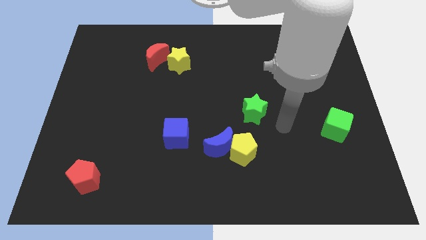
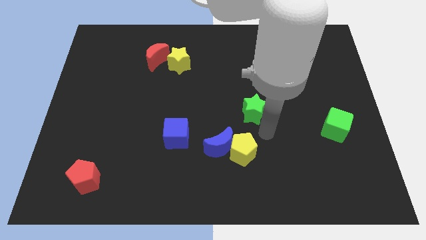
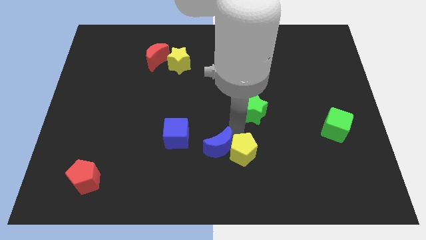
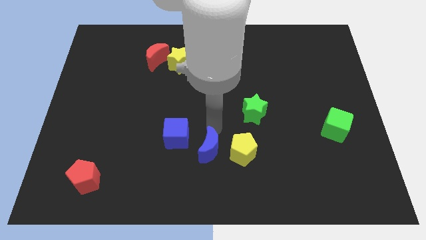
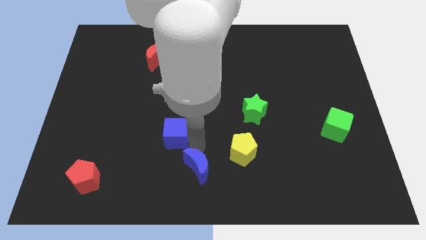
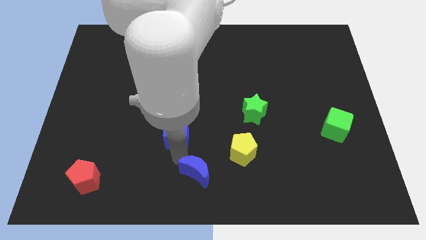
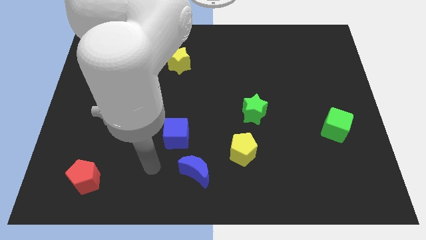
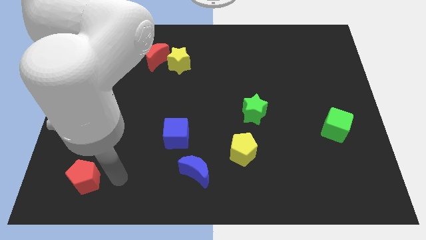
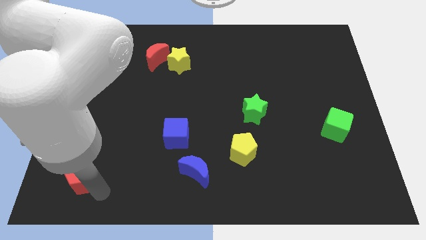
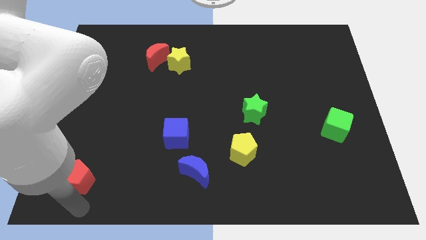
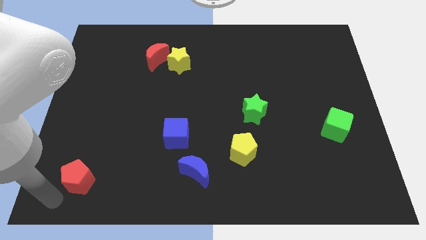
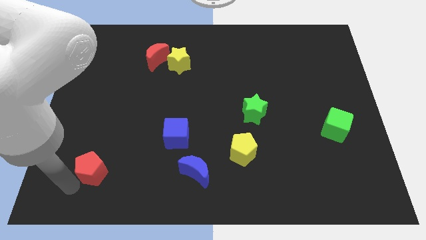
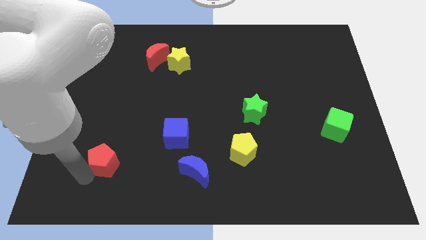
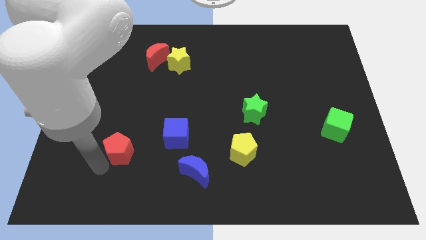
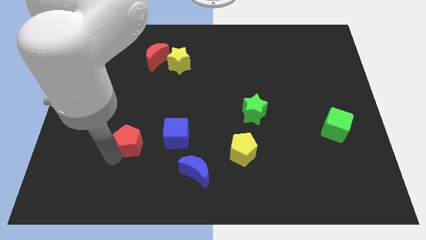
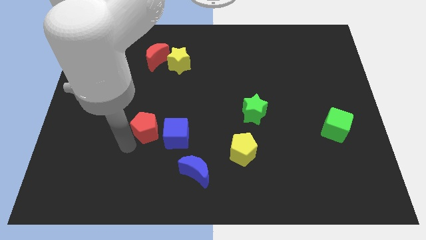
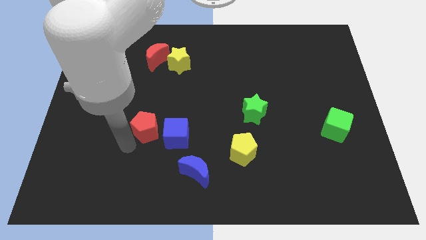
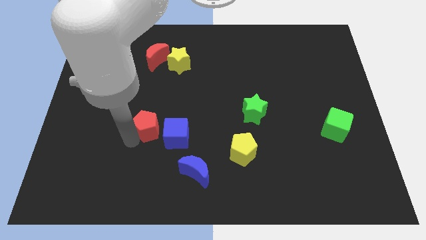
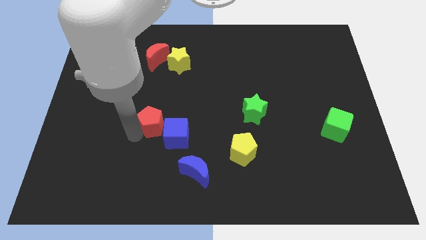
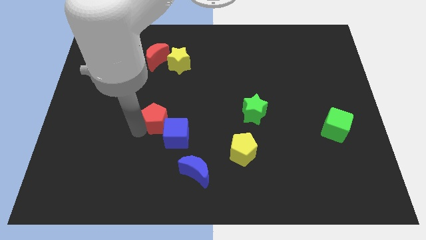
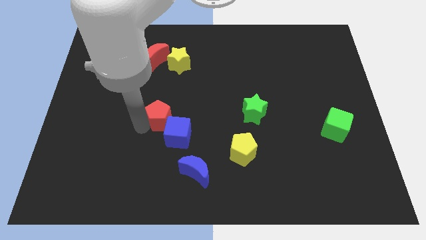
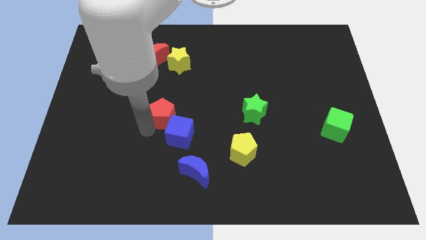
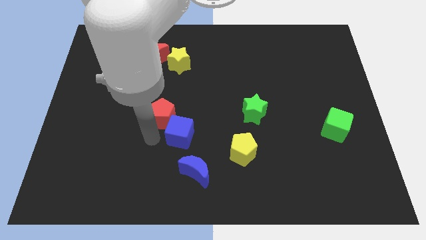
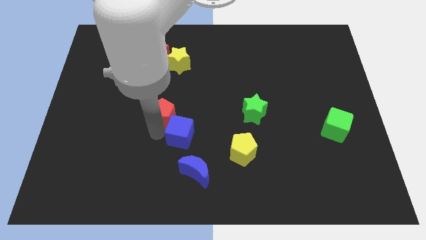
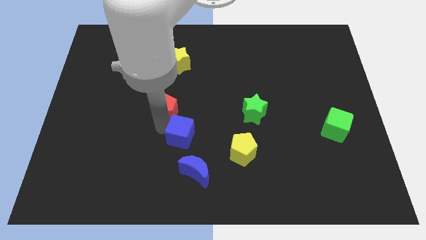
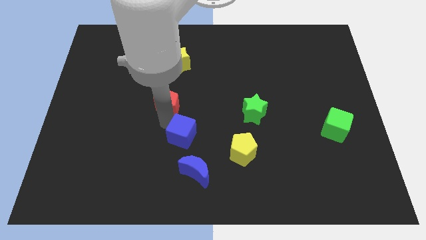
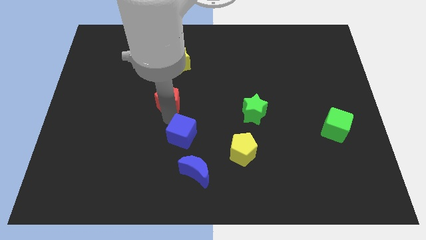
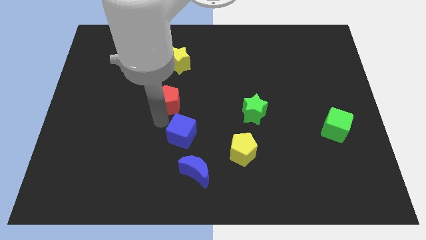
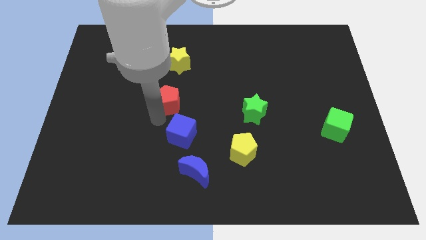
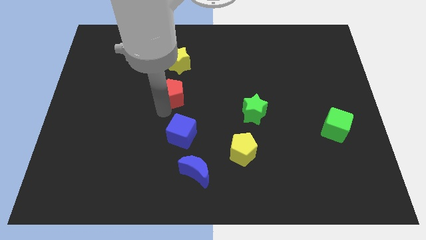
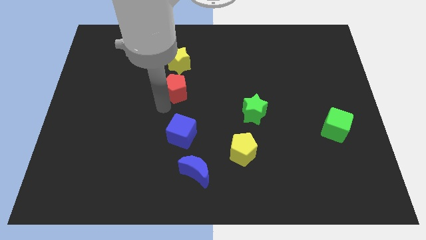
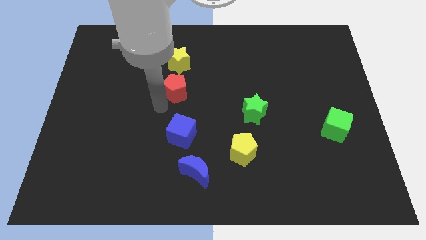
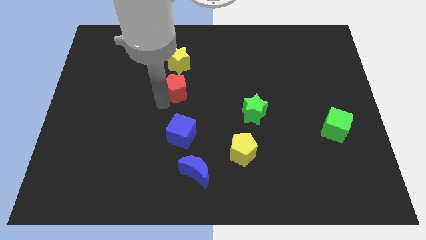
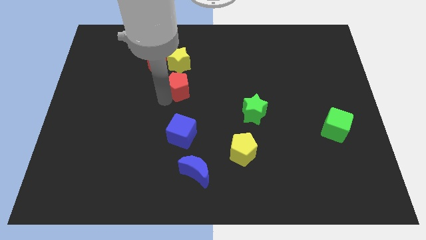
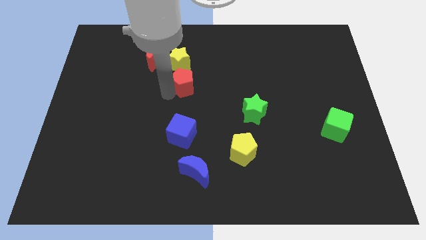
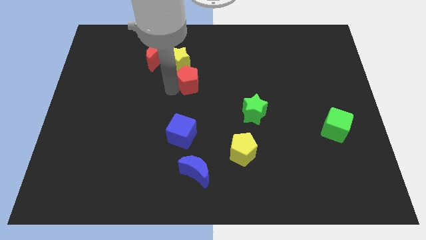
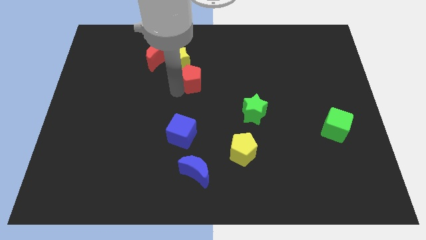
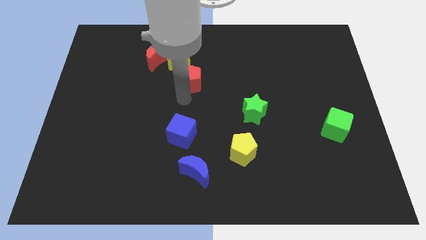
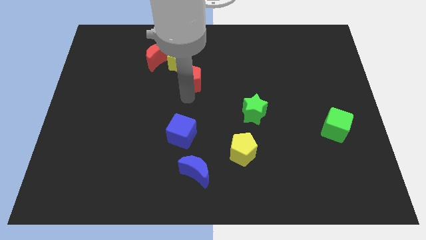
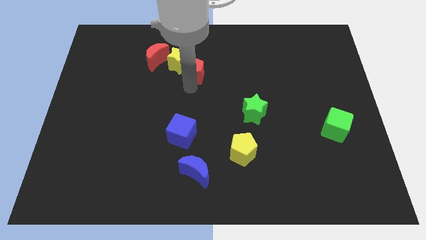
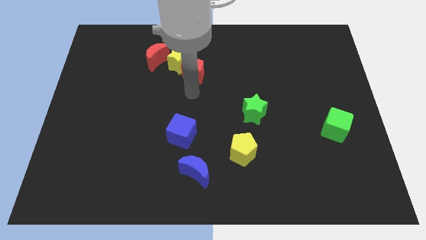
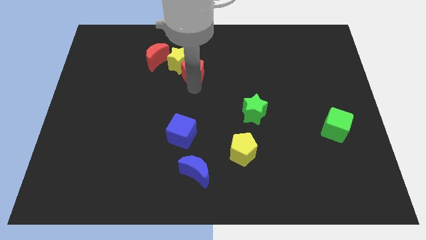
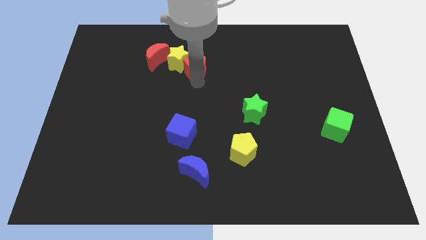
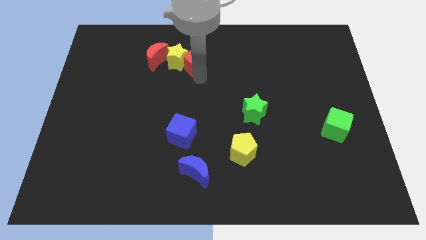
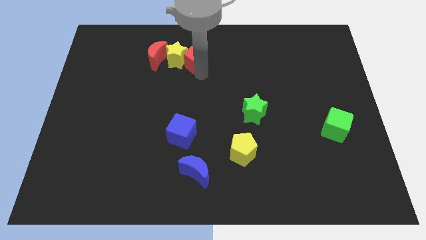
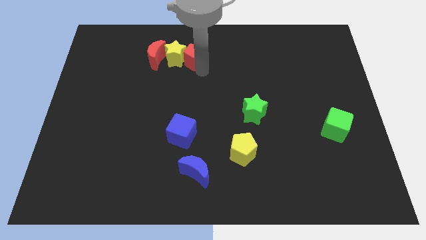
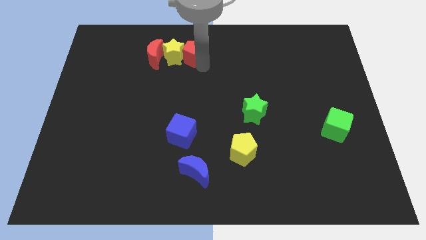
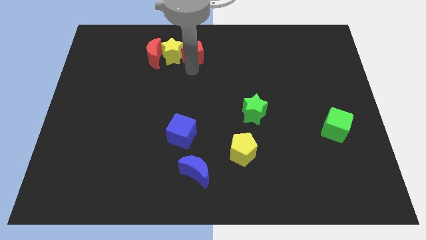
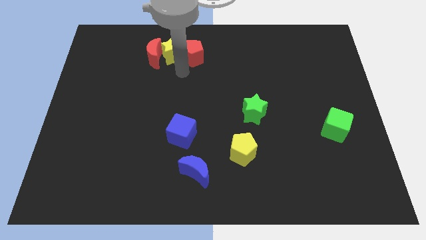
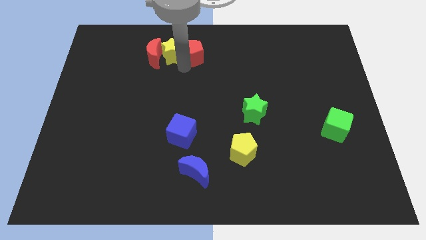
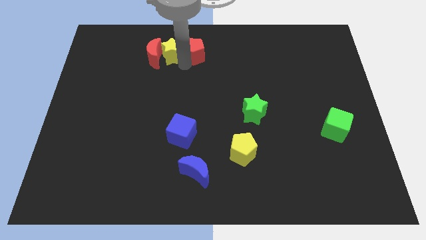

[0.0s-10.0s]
put the red pentagon to the top side

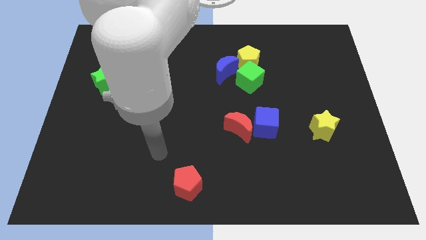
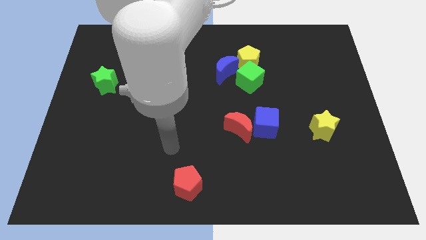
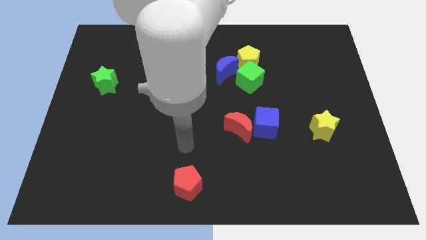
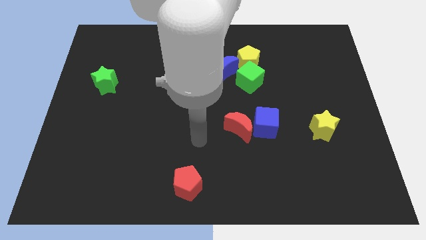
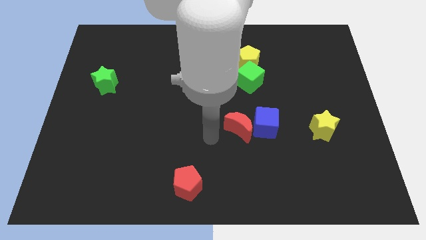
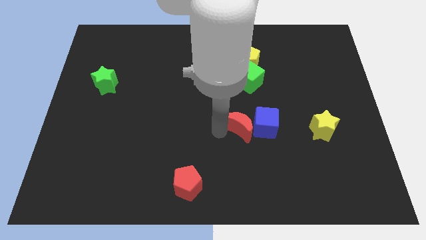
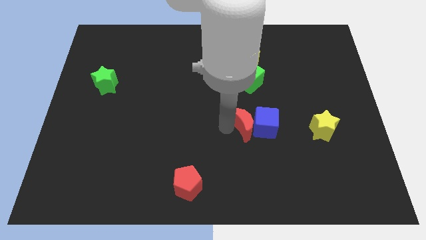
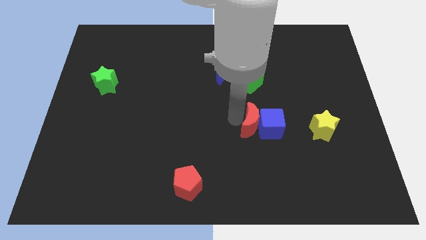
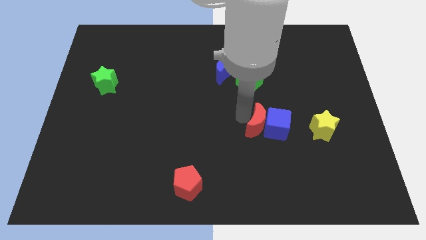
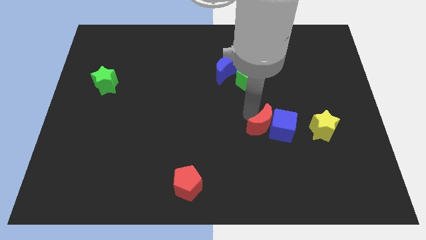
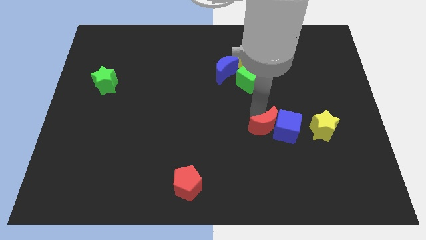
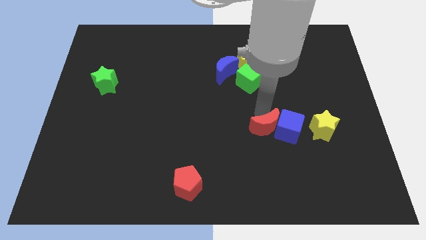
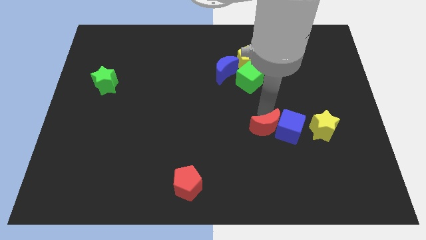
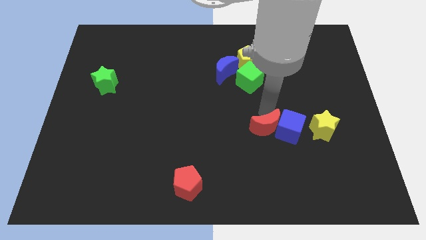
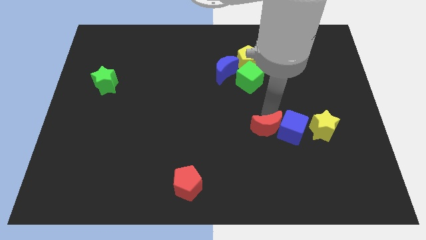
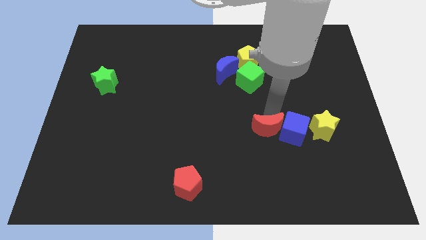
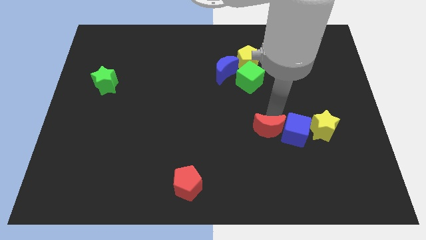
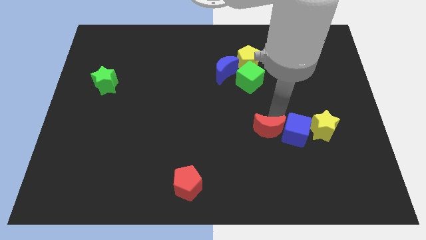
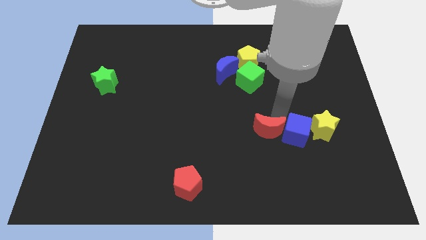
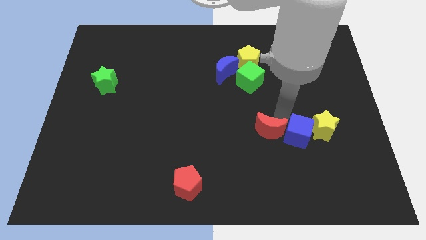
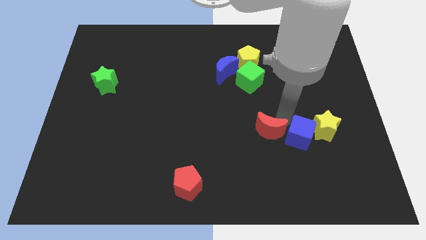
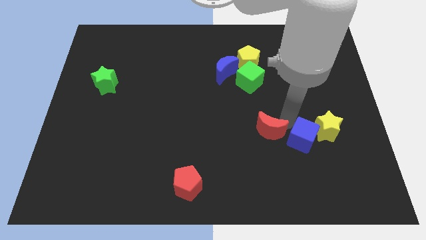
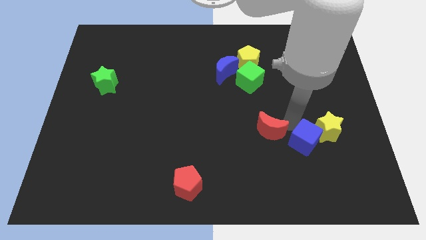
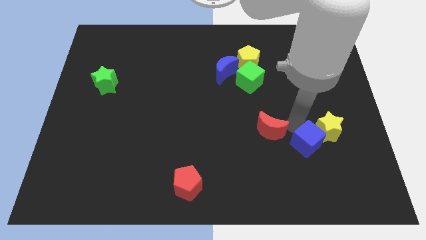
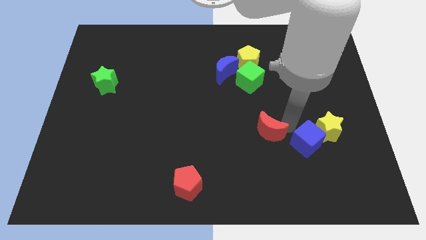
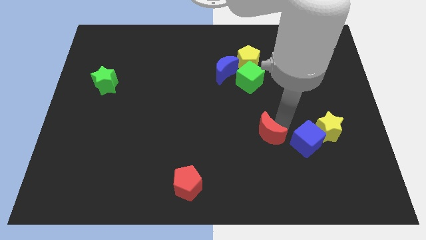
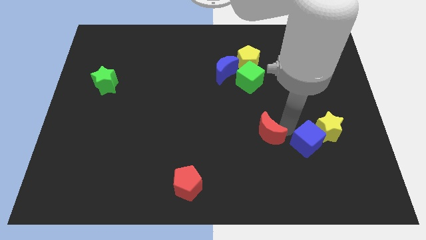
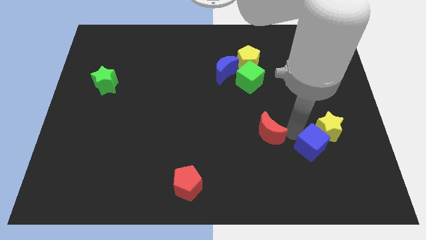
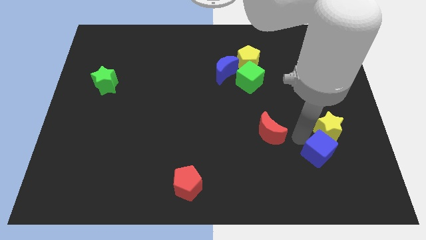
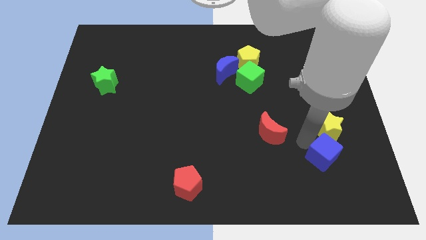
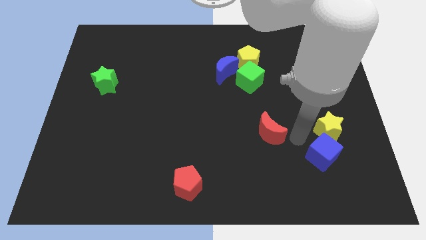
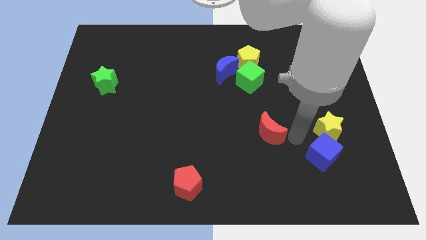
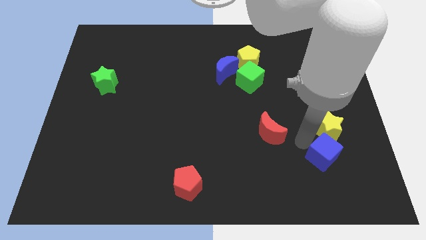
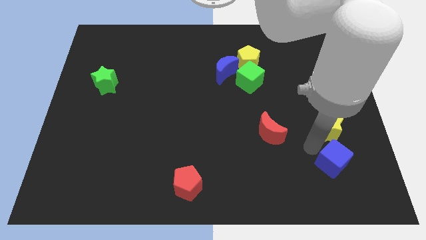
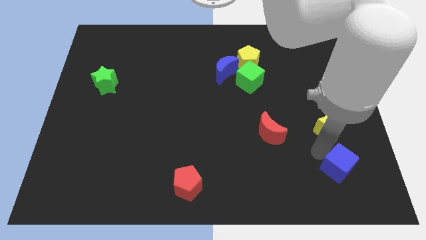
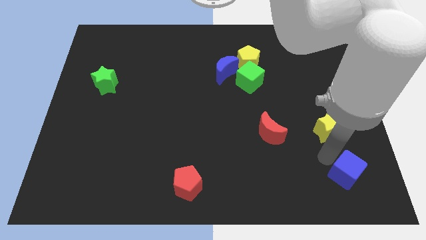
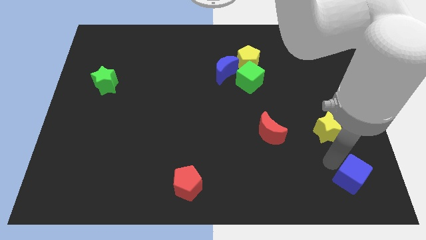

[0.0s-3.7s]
put the blue cube to the lower right corner
